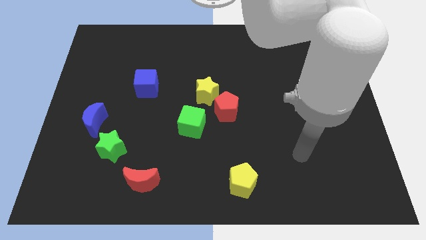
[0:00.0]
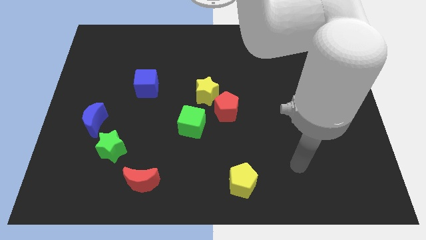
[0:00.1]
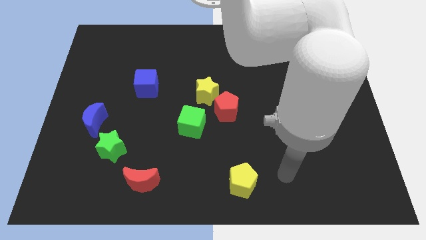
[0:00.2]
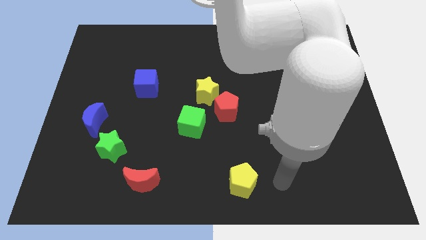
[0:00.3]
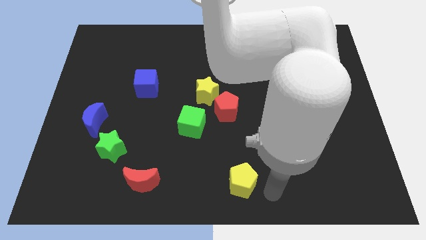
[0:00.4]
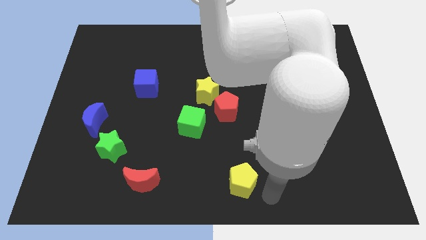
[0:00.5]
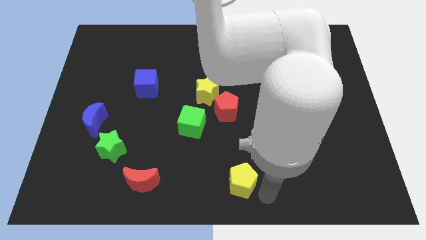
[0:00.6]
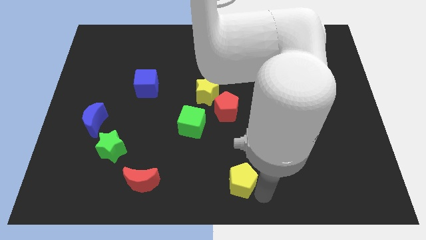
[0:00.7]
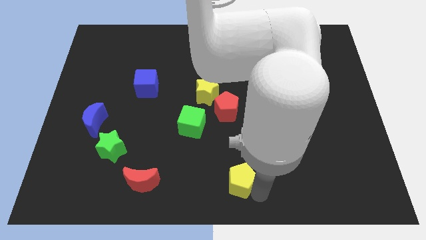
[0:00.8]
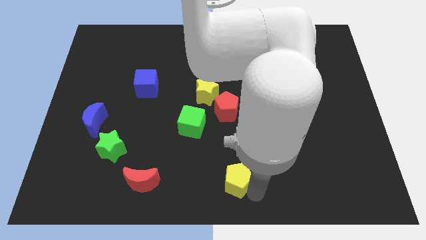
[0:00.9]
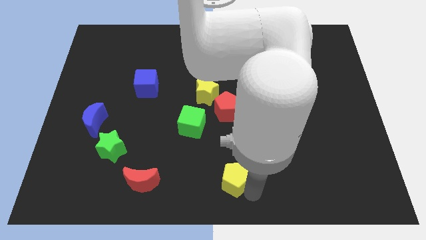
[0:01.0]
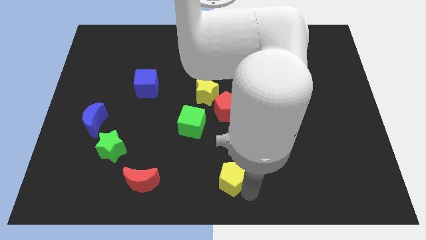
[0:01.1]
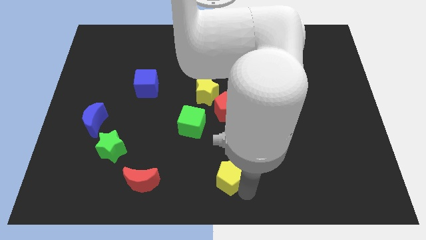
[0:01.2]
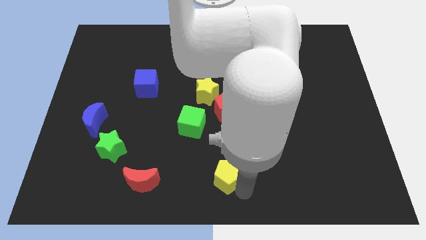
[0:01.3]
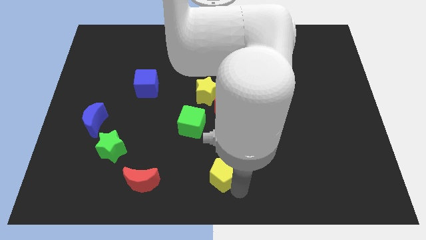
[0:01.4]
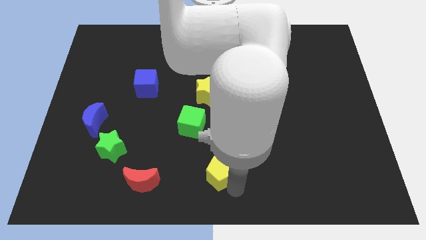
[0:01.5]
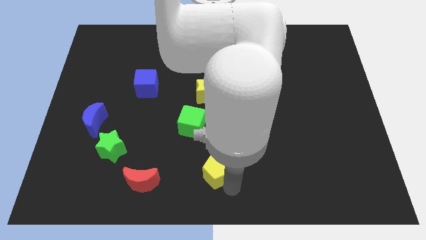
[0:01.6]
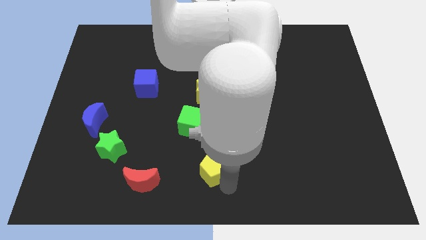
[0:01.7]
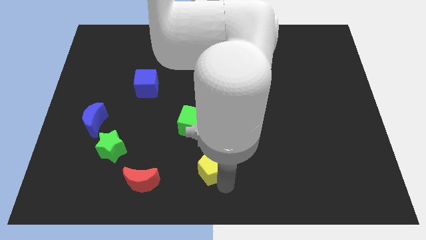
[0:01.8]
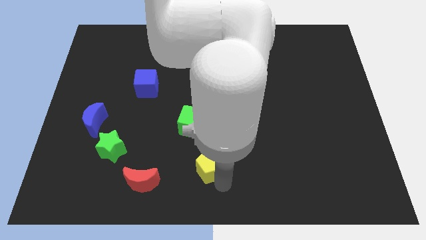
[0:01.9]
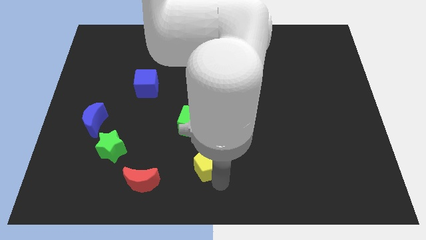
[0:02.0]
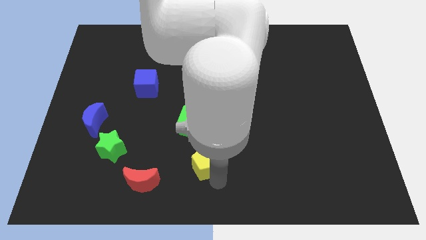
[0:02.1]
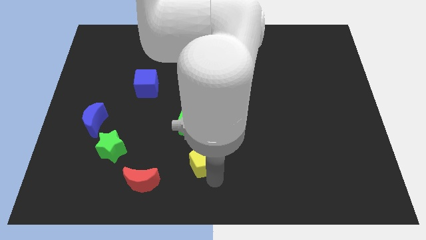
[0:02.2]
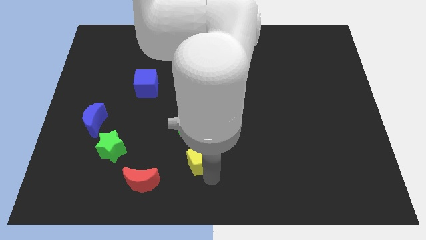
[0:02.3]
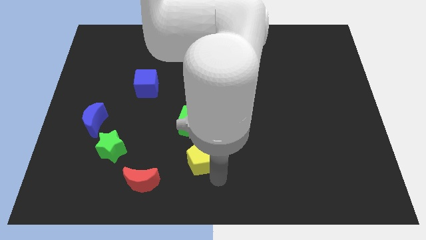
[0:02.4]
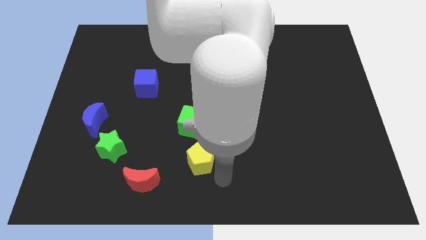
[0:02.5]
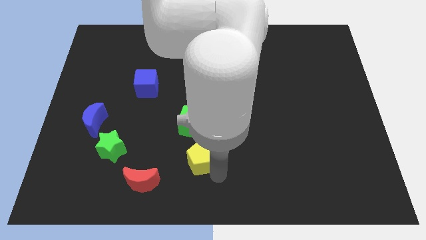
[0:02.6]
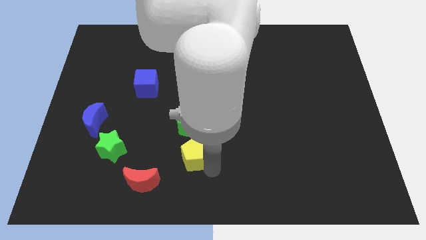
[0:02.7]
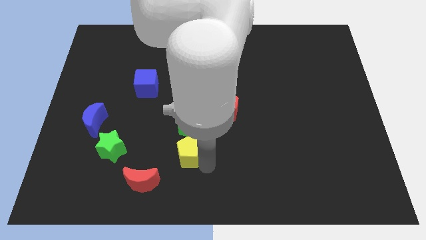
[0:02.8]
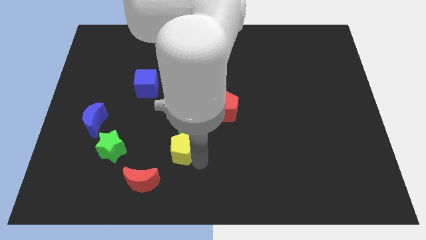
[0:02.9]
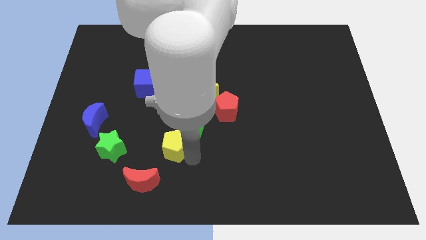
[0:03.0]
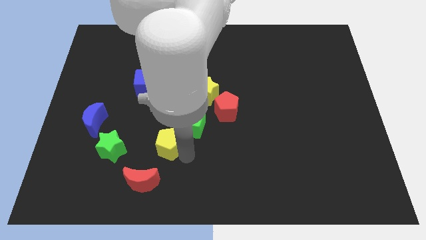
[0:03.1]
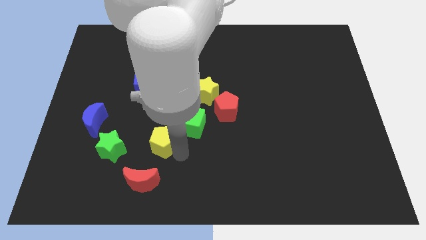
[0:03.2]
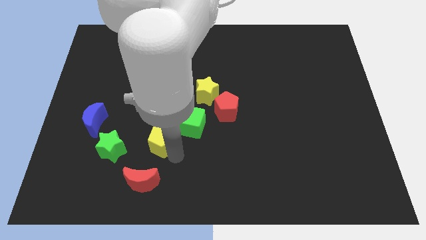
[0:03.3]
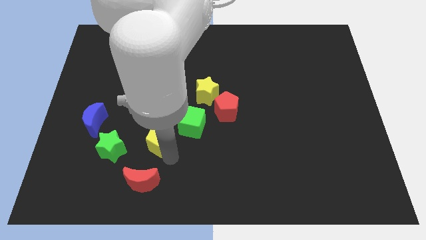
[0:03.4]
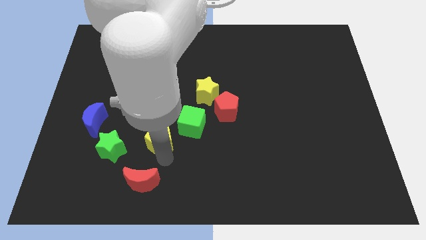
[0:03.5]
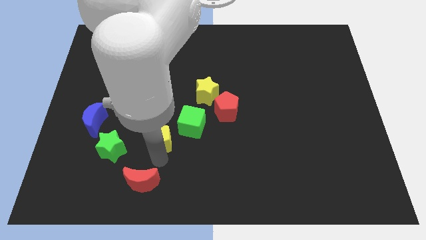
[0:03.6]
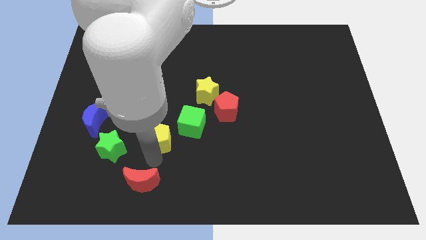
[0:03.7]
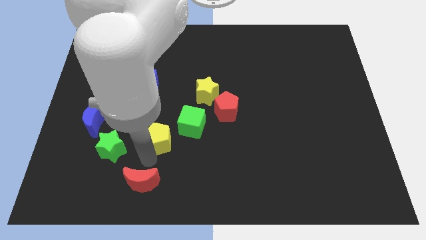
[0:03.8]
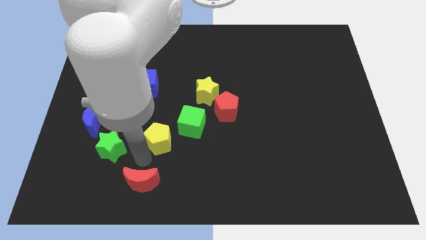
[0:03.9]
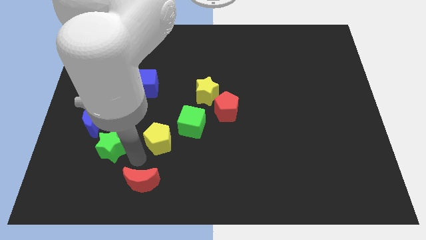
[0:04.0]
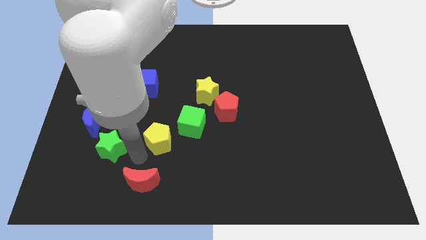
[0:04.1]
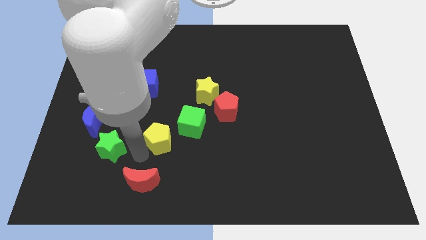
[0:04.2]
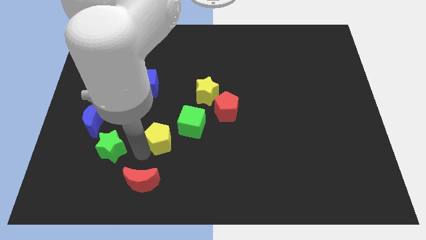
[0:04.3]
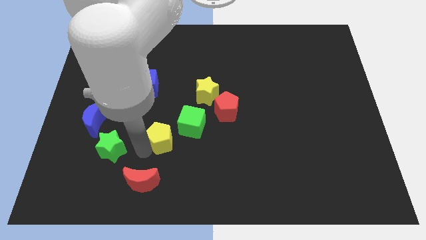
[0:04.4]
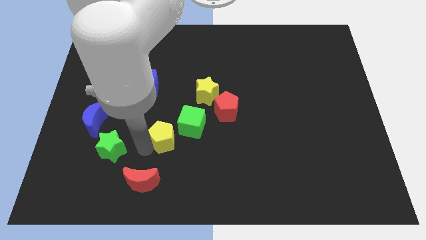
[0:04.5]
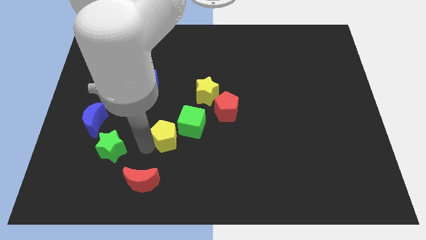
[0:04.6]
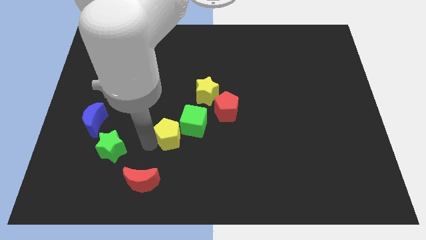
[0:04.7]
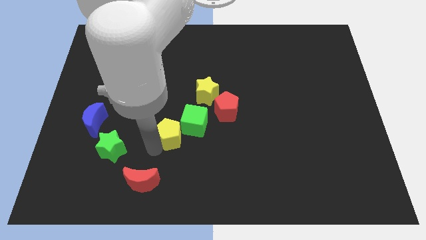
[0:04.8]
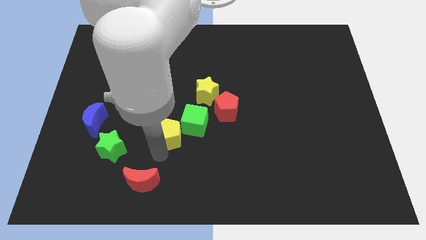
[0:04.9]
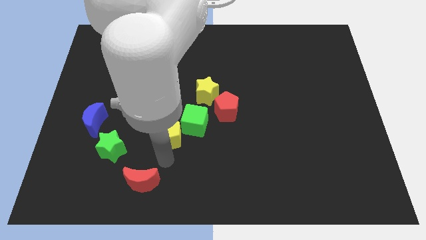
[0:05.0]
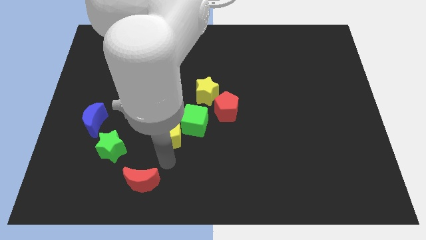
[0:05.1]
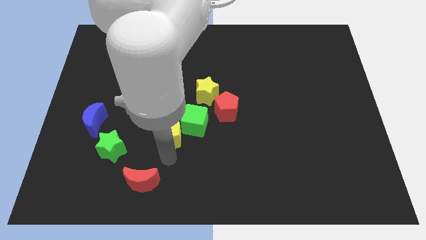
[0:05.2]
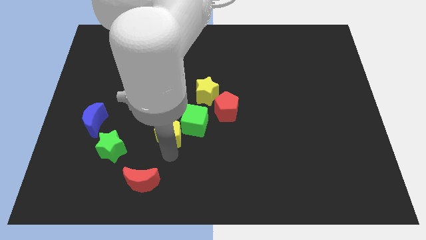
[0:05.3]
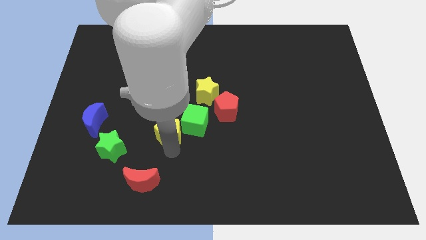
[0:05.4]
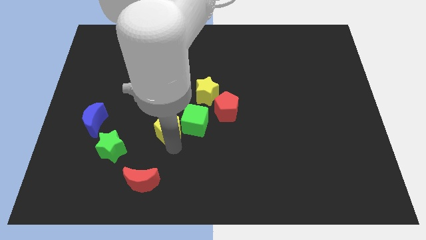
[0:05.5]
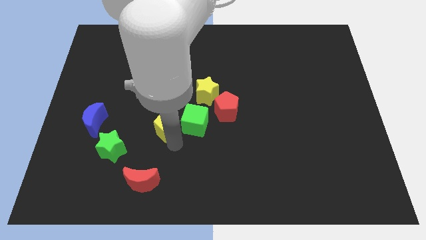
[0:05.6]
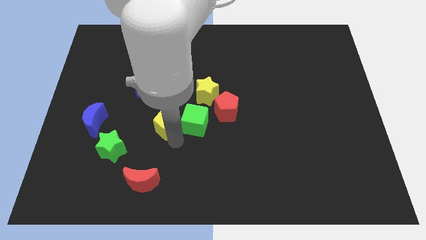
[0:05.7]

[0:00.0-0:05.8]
slide the yellow pentagon to the top left of the green cube

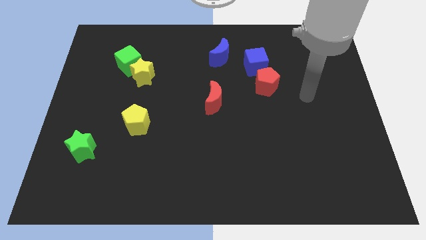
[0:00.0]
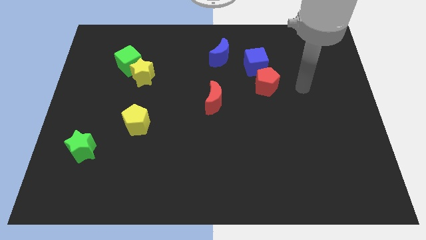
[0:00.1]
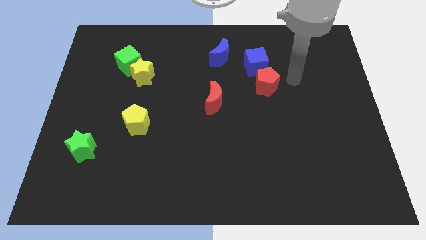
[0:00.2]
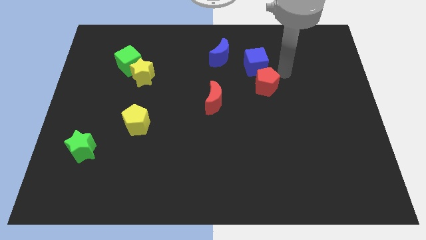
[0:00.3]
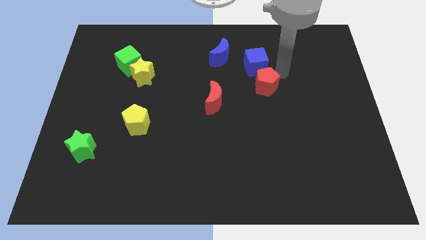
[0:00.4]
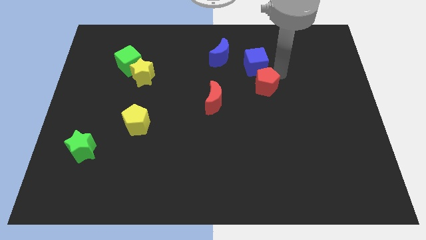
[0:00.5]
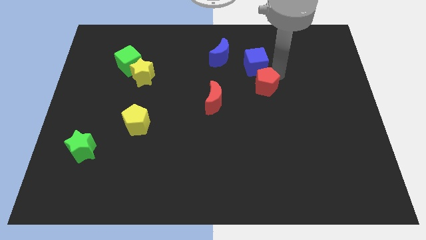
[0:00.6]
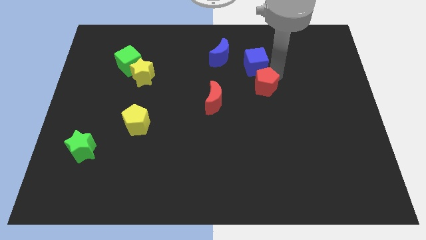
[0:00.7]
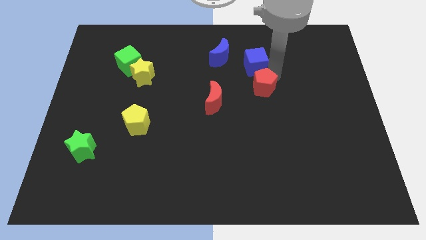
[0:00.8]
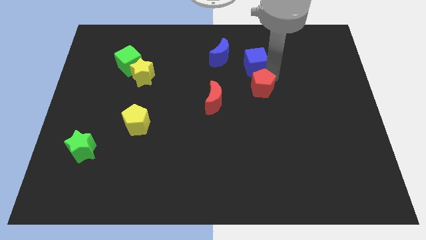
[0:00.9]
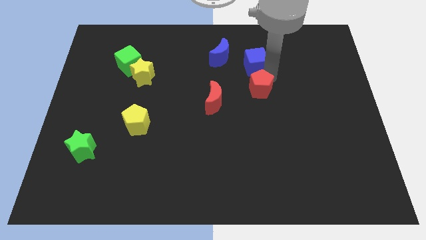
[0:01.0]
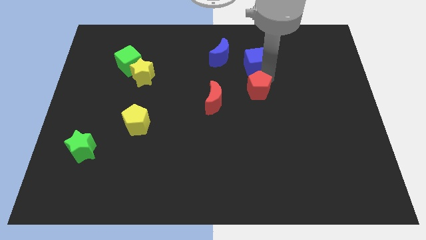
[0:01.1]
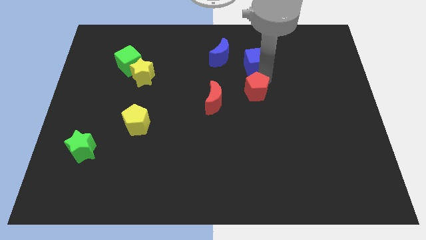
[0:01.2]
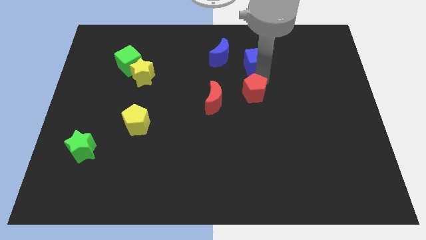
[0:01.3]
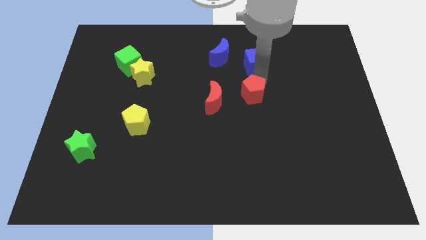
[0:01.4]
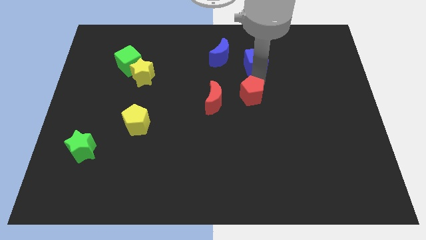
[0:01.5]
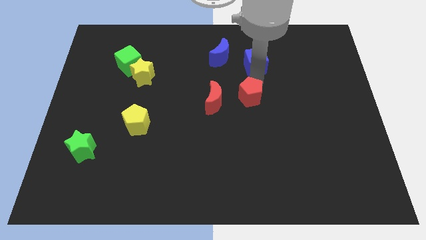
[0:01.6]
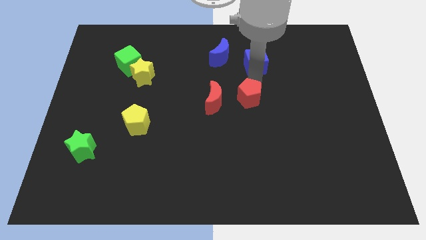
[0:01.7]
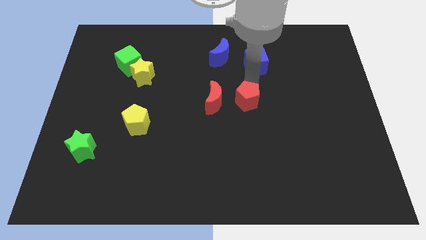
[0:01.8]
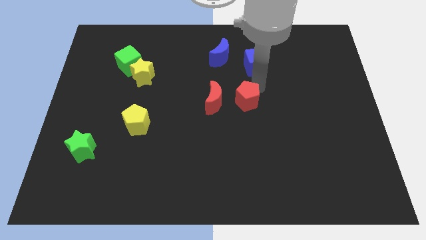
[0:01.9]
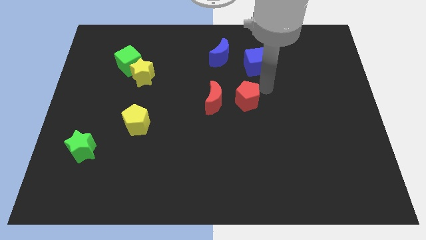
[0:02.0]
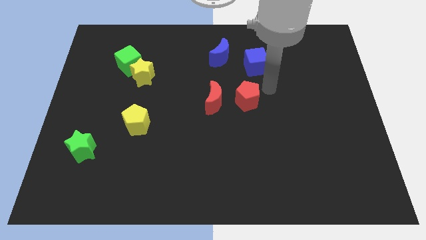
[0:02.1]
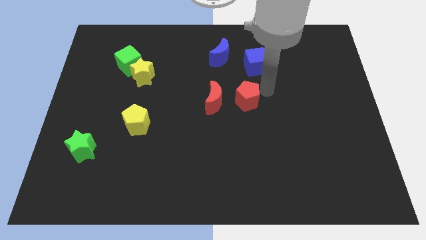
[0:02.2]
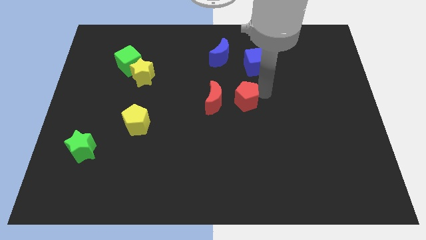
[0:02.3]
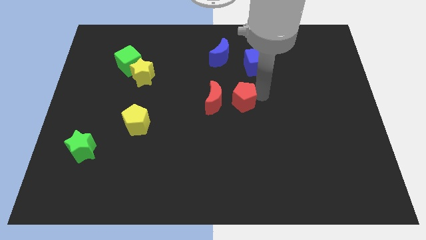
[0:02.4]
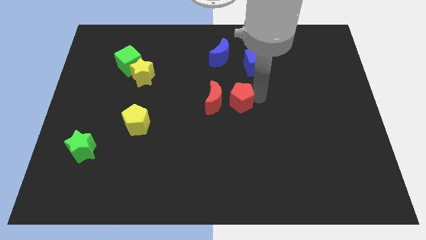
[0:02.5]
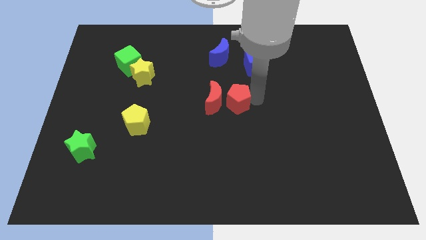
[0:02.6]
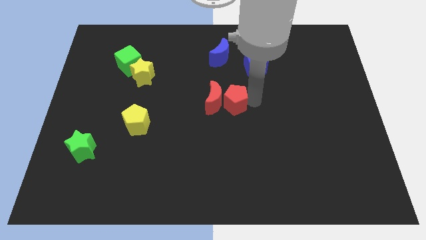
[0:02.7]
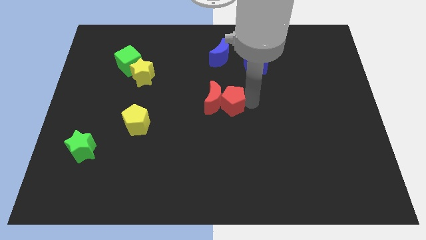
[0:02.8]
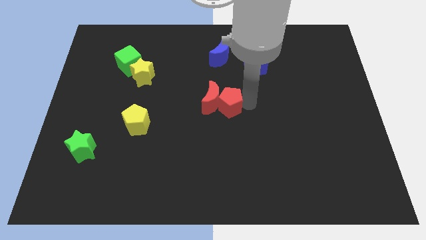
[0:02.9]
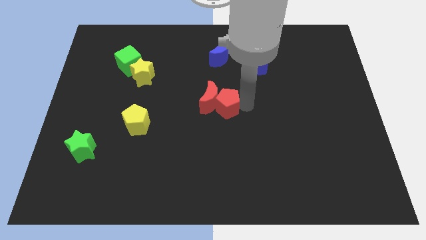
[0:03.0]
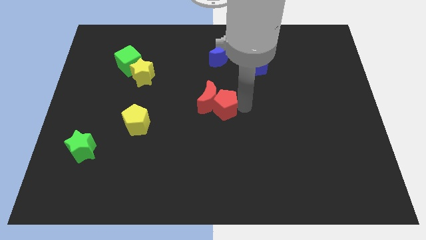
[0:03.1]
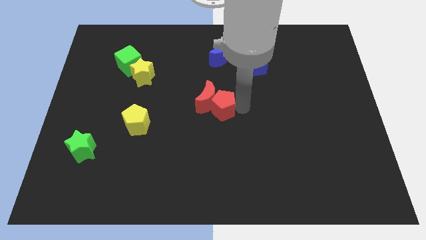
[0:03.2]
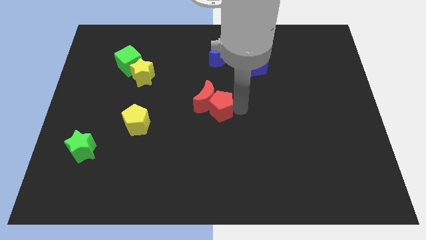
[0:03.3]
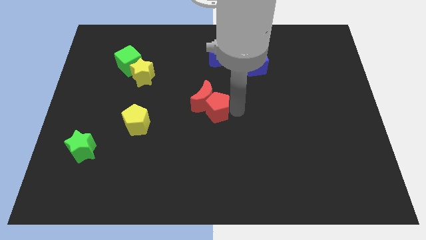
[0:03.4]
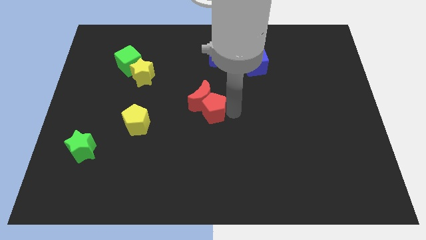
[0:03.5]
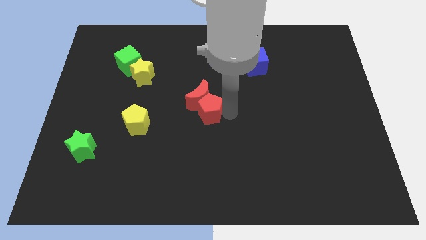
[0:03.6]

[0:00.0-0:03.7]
put the red pentagon to the bottom left side of the red moon
